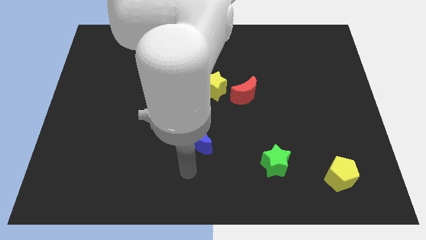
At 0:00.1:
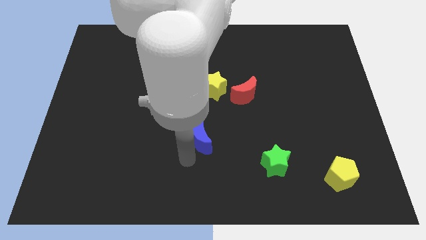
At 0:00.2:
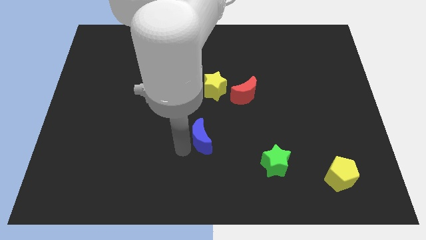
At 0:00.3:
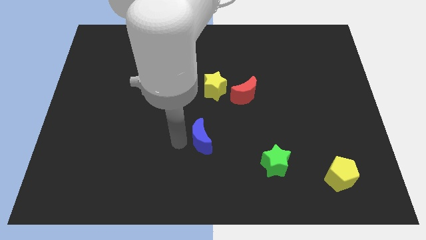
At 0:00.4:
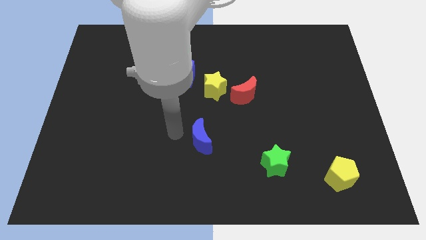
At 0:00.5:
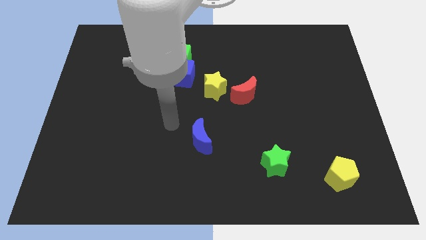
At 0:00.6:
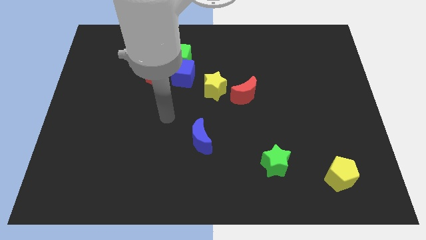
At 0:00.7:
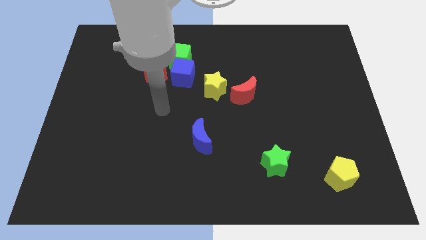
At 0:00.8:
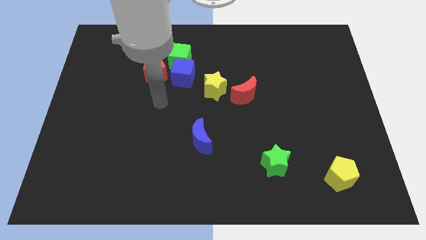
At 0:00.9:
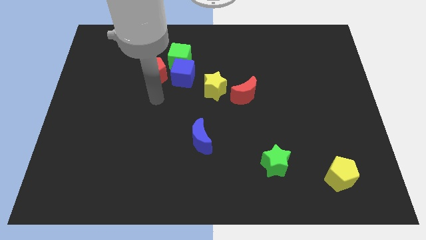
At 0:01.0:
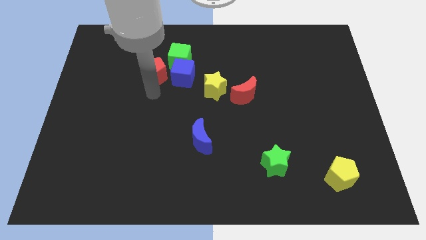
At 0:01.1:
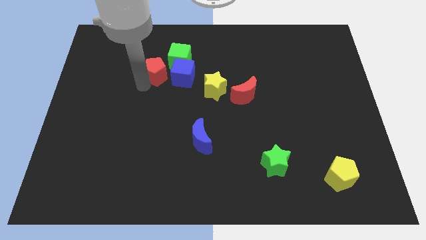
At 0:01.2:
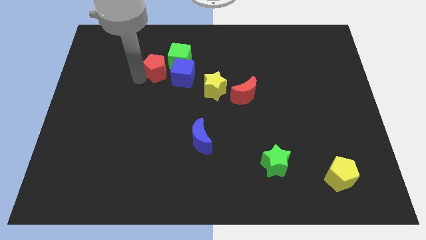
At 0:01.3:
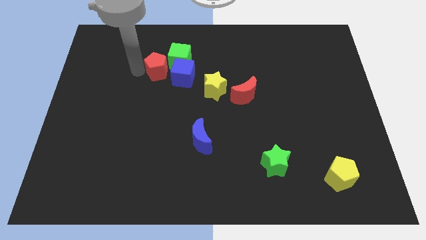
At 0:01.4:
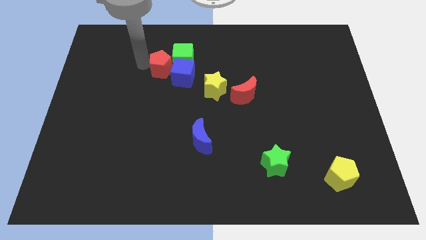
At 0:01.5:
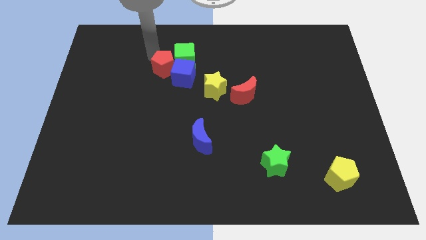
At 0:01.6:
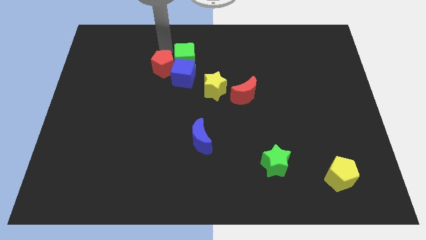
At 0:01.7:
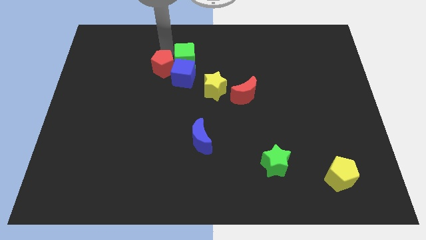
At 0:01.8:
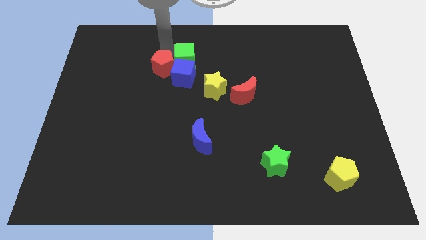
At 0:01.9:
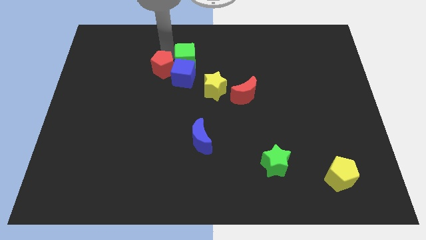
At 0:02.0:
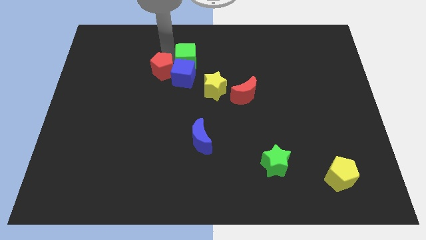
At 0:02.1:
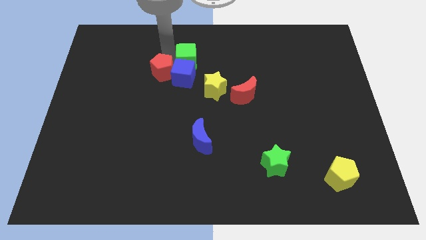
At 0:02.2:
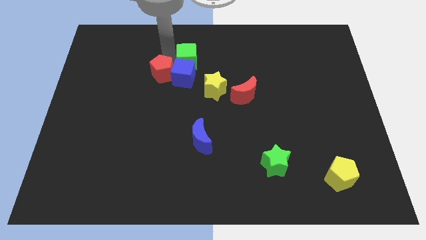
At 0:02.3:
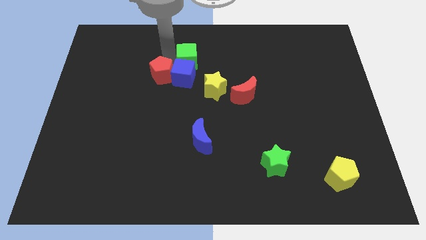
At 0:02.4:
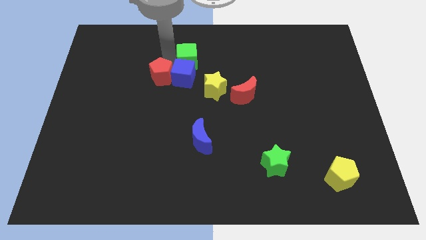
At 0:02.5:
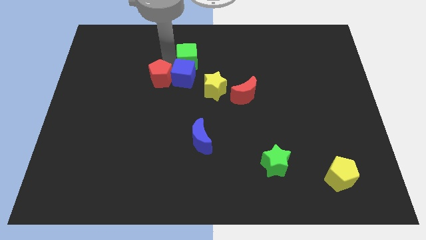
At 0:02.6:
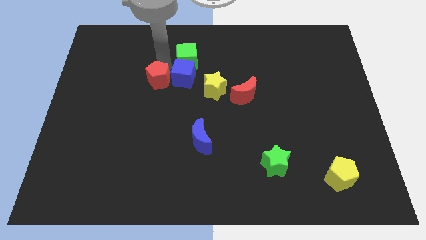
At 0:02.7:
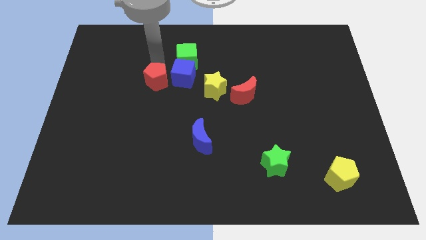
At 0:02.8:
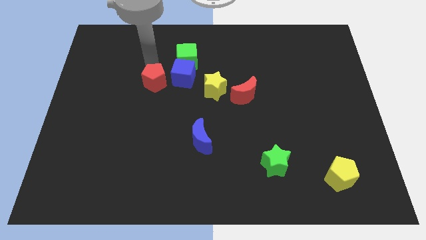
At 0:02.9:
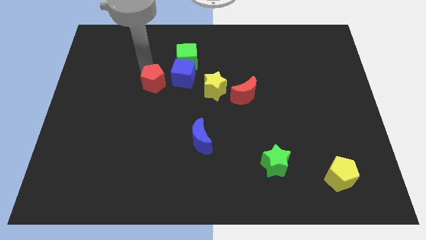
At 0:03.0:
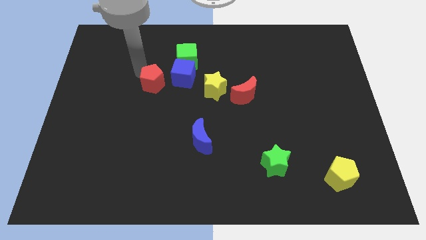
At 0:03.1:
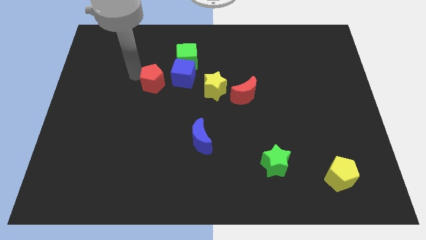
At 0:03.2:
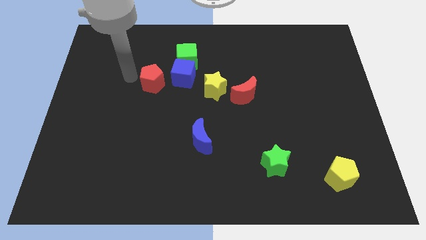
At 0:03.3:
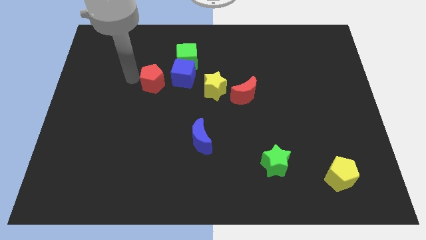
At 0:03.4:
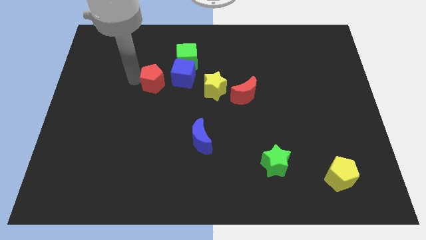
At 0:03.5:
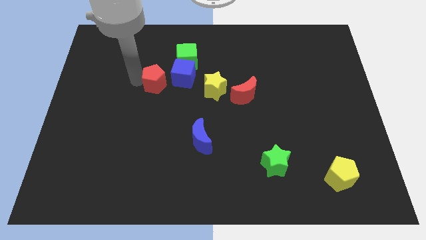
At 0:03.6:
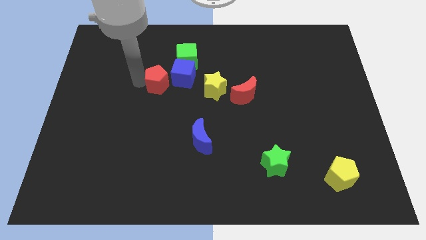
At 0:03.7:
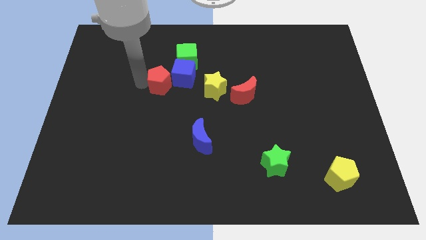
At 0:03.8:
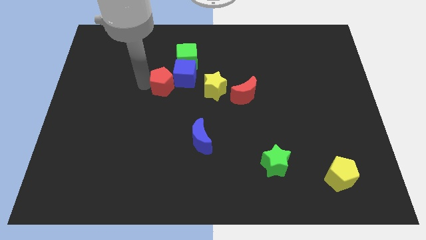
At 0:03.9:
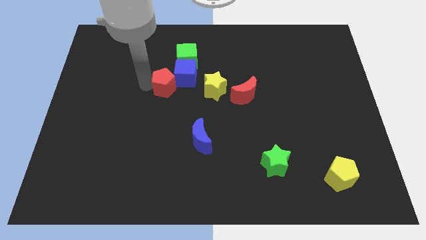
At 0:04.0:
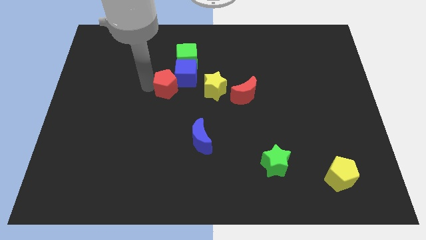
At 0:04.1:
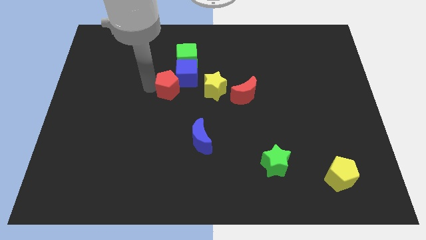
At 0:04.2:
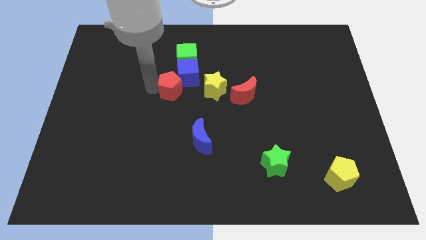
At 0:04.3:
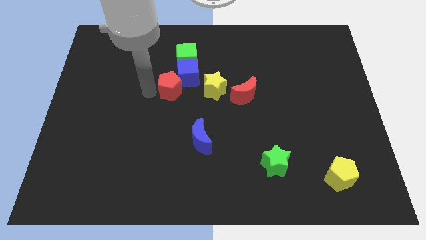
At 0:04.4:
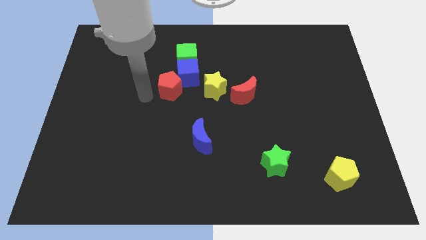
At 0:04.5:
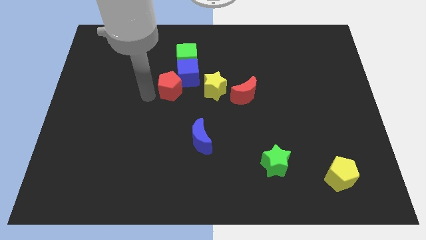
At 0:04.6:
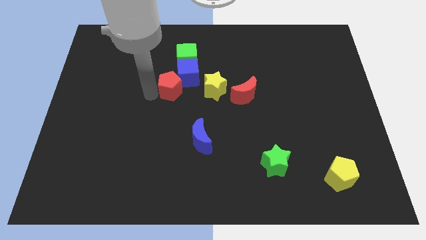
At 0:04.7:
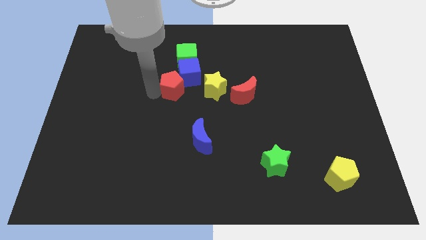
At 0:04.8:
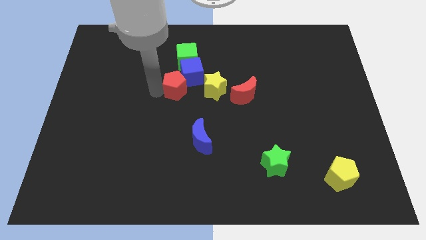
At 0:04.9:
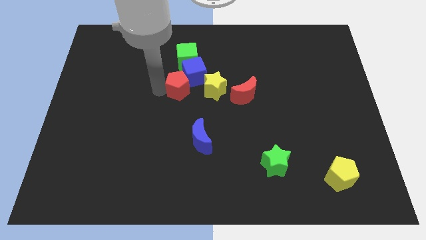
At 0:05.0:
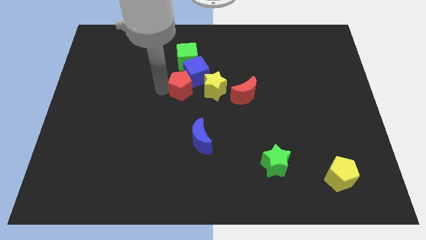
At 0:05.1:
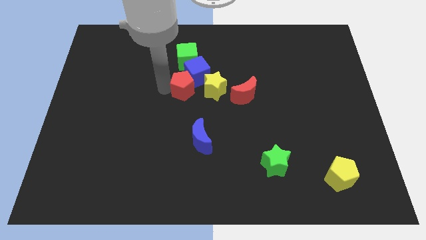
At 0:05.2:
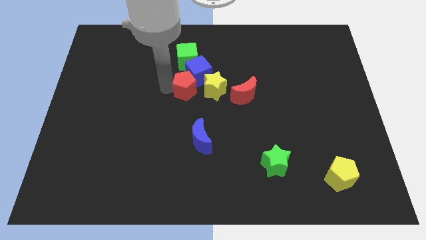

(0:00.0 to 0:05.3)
push the red pentagon a bit to the right

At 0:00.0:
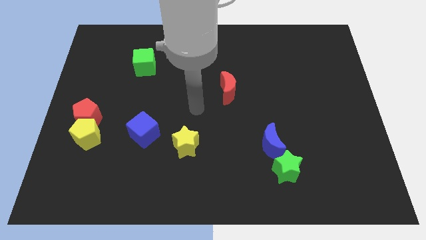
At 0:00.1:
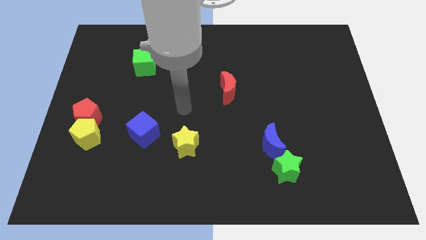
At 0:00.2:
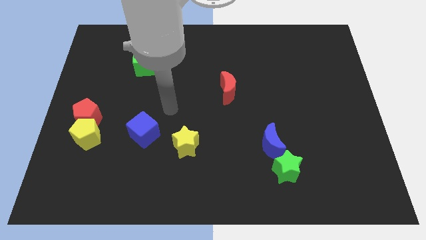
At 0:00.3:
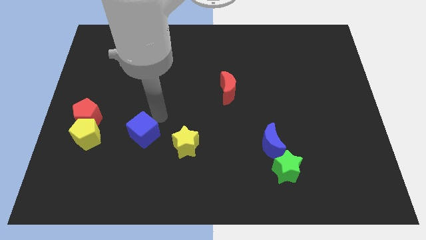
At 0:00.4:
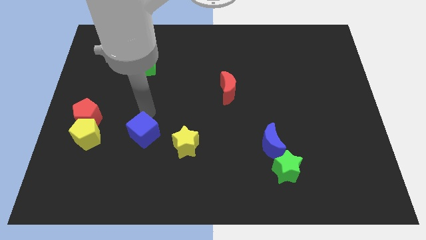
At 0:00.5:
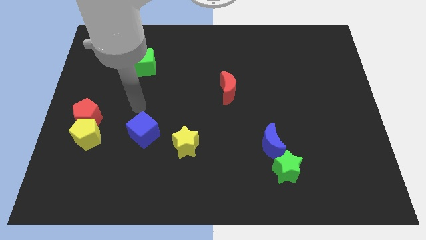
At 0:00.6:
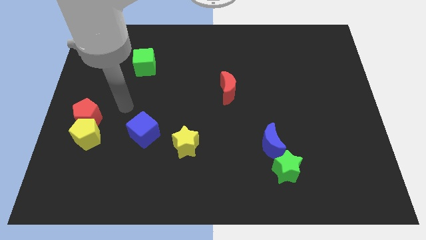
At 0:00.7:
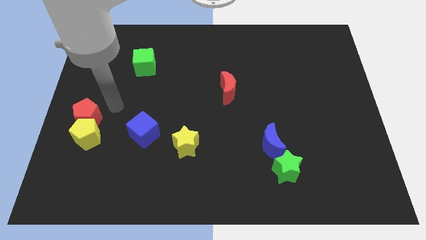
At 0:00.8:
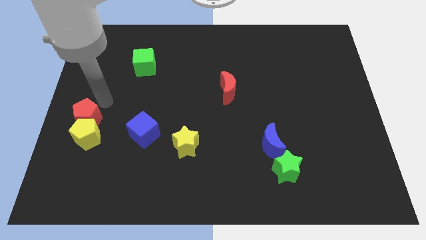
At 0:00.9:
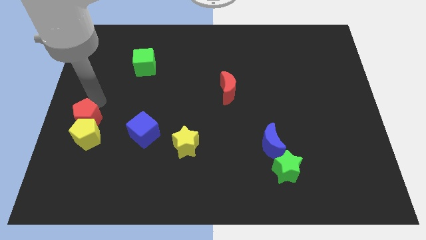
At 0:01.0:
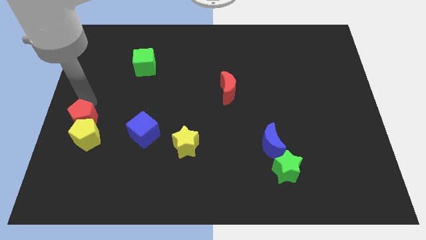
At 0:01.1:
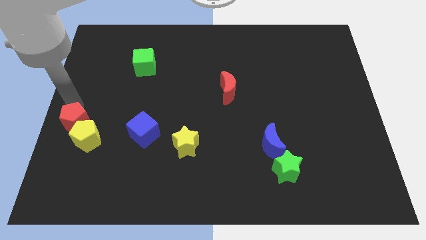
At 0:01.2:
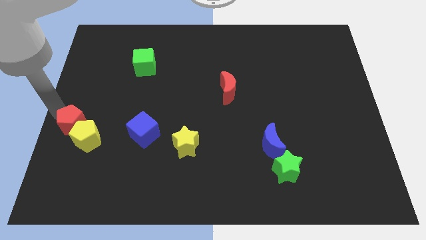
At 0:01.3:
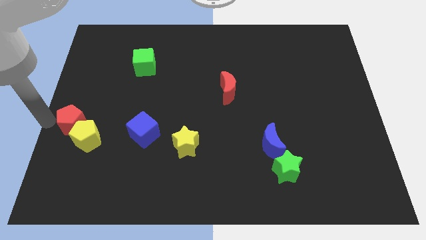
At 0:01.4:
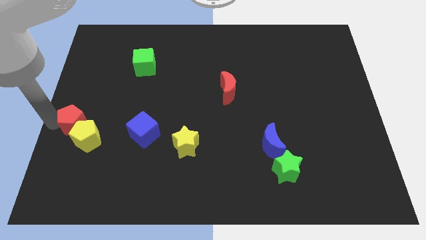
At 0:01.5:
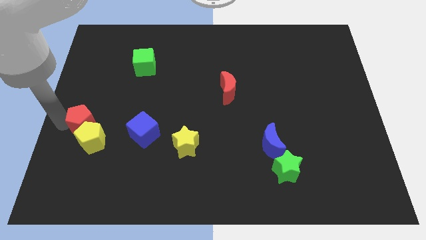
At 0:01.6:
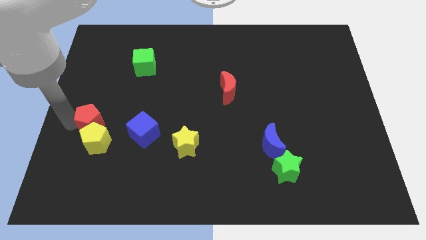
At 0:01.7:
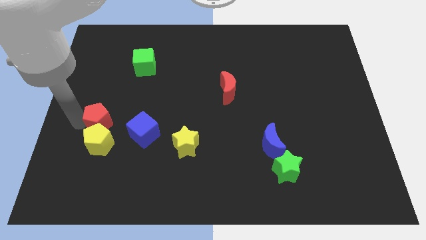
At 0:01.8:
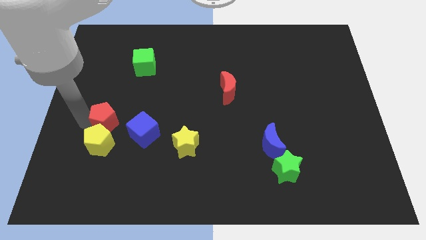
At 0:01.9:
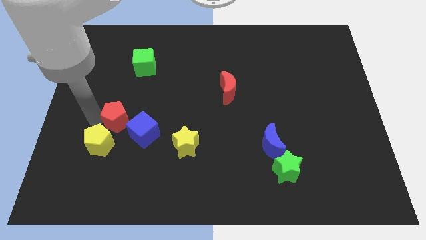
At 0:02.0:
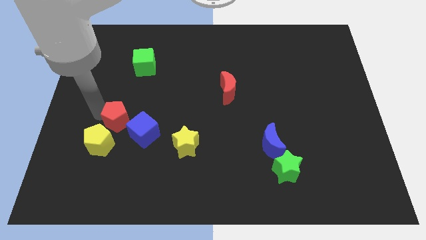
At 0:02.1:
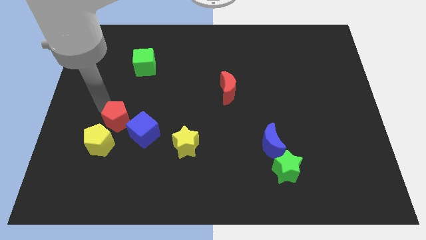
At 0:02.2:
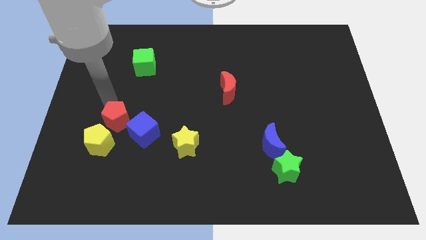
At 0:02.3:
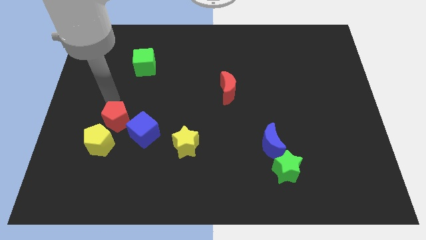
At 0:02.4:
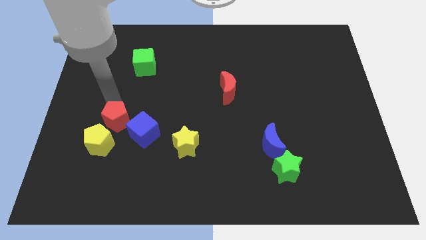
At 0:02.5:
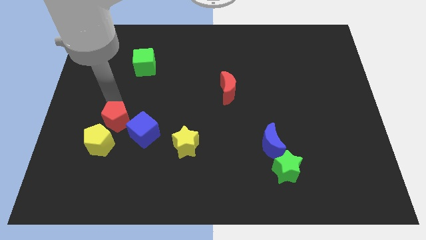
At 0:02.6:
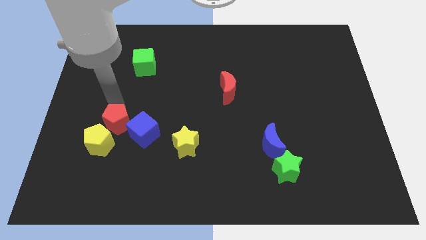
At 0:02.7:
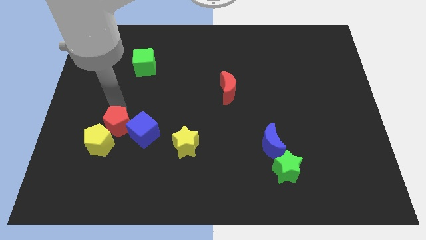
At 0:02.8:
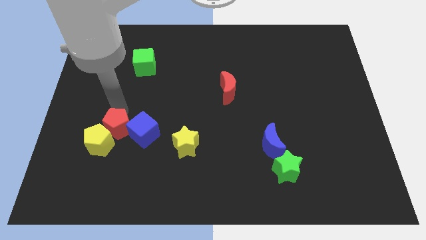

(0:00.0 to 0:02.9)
slide the red pentagon diagonally down and right a bit
